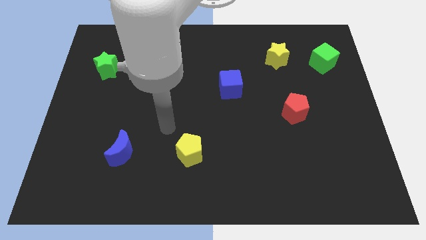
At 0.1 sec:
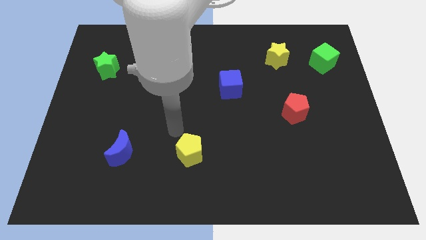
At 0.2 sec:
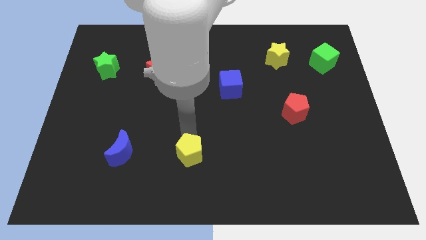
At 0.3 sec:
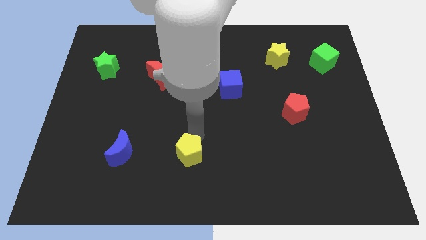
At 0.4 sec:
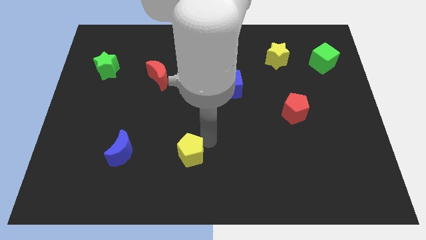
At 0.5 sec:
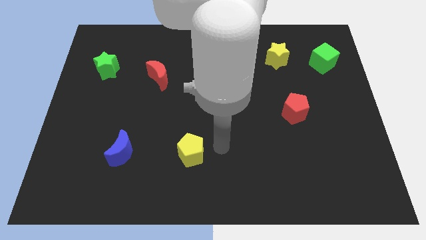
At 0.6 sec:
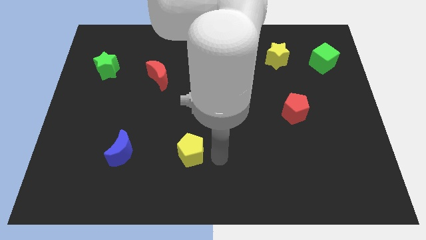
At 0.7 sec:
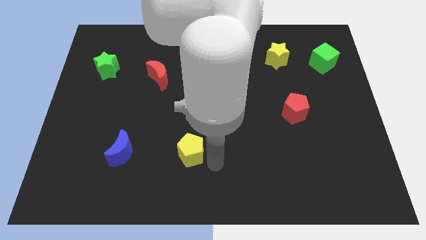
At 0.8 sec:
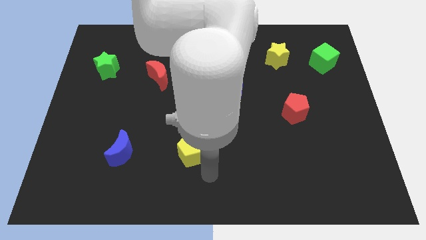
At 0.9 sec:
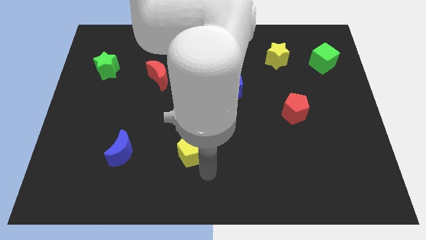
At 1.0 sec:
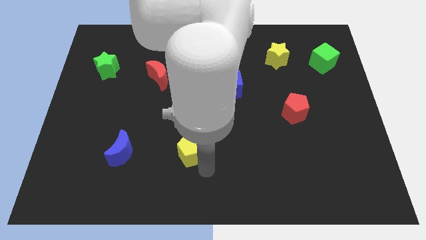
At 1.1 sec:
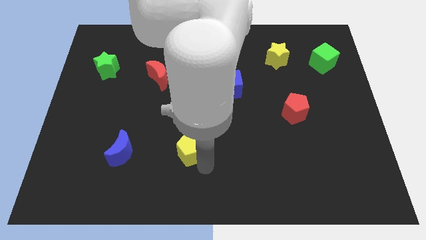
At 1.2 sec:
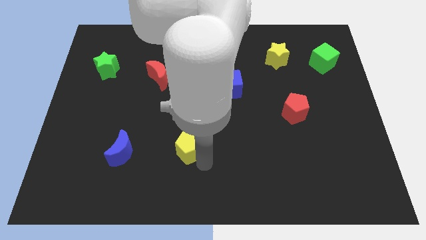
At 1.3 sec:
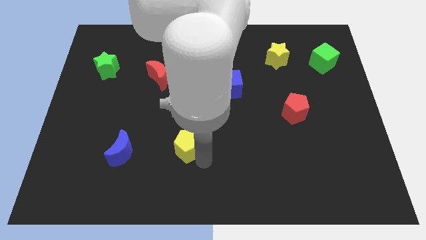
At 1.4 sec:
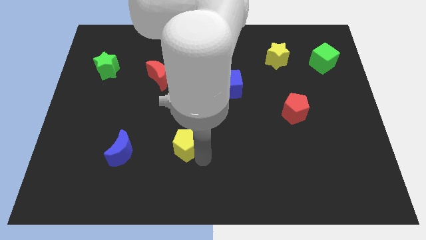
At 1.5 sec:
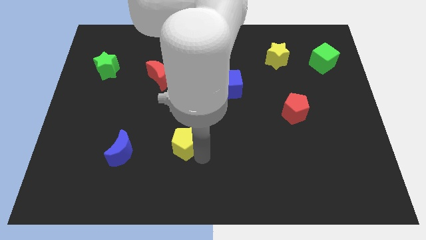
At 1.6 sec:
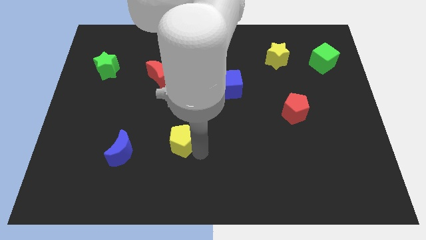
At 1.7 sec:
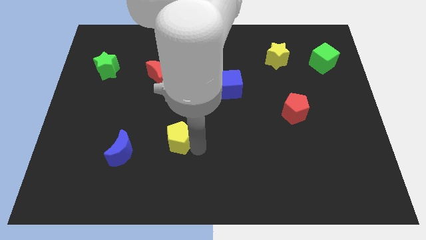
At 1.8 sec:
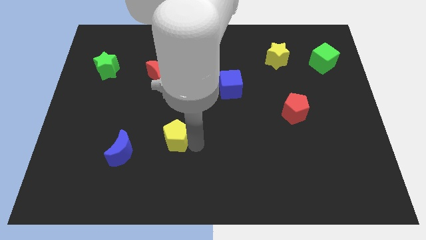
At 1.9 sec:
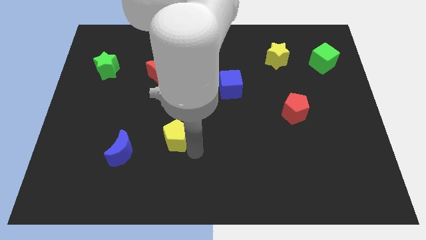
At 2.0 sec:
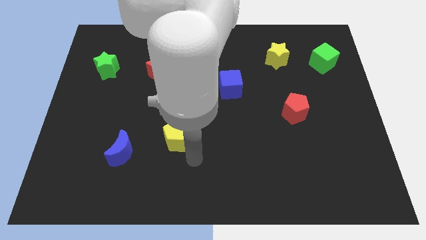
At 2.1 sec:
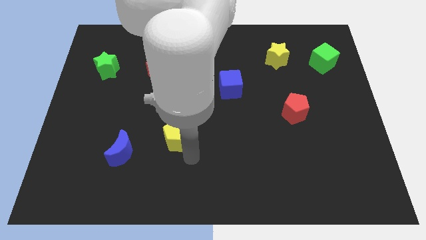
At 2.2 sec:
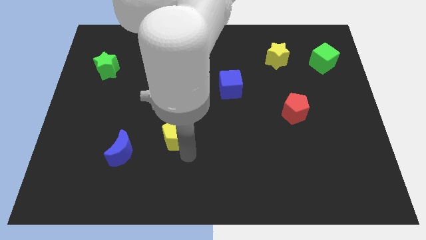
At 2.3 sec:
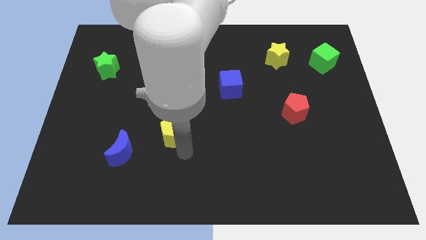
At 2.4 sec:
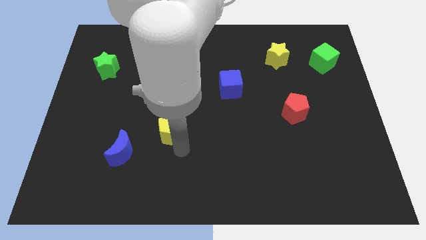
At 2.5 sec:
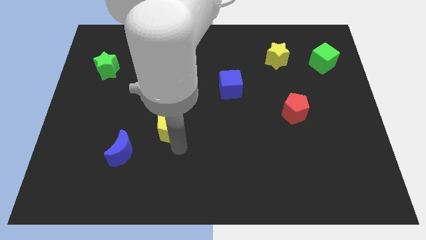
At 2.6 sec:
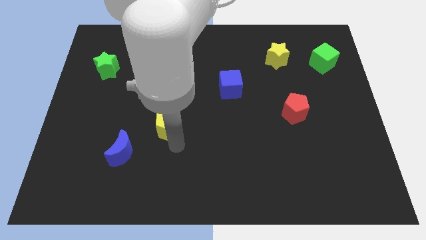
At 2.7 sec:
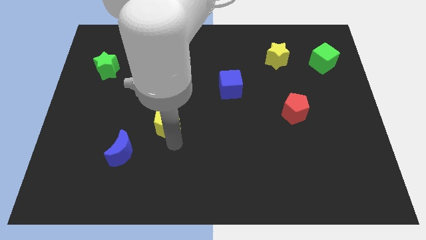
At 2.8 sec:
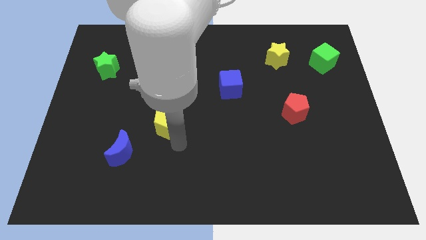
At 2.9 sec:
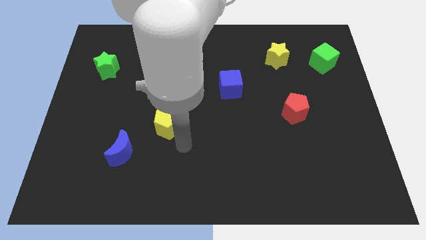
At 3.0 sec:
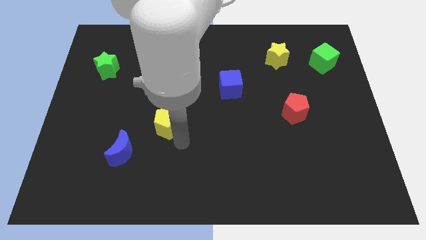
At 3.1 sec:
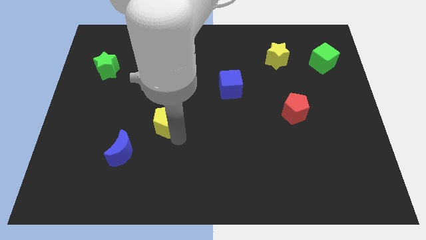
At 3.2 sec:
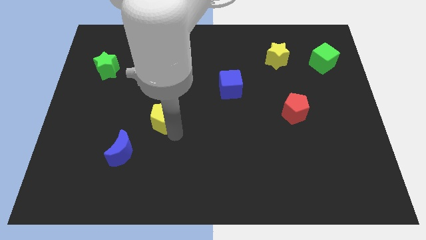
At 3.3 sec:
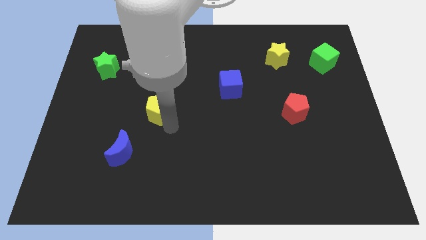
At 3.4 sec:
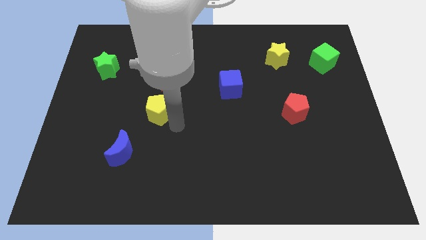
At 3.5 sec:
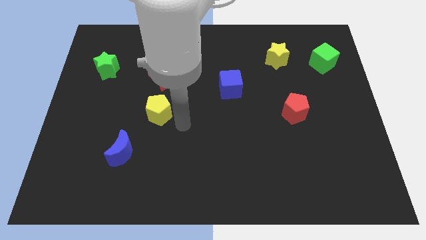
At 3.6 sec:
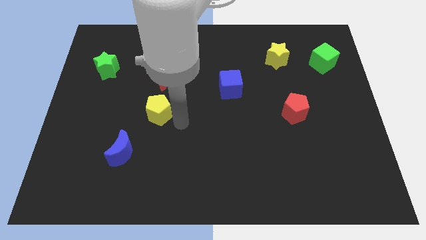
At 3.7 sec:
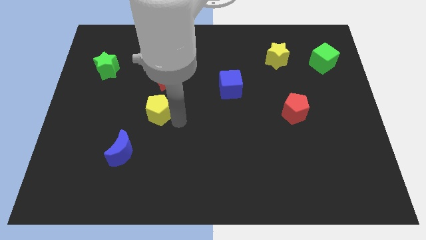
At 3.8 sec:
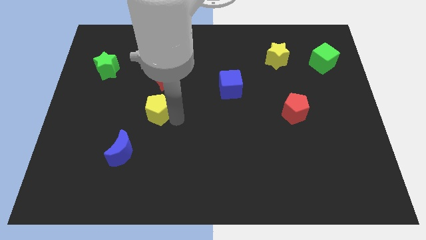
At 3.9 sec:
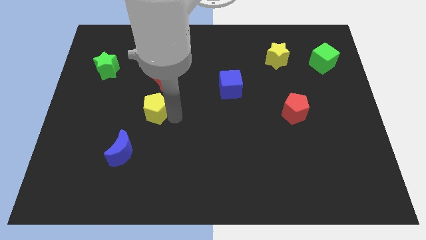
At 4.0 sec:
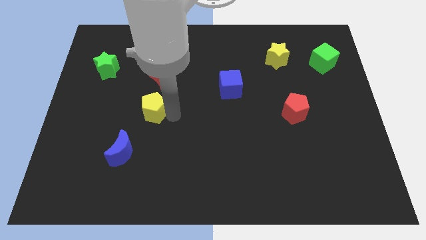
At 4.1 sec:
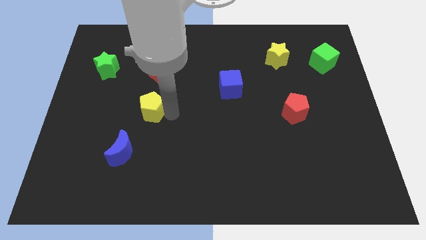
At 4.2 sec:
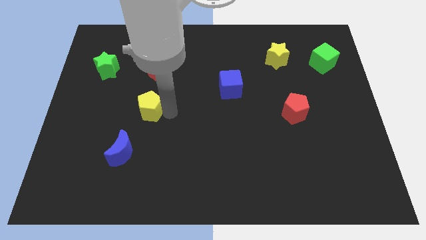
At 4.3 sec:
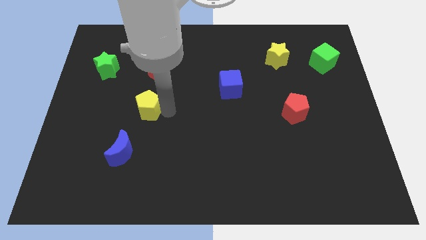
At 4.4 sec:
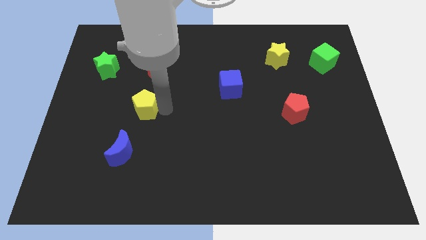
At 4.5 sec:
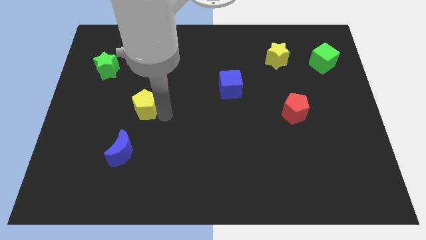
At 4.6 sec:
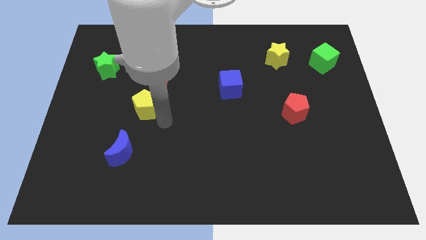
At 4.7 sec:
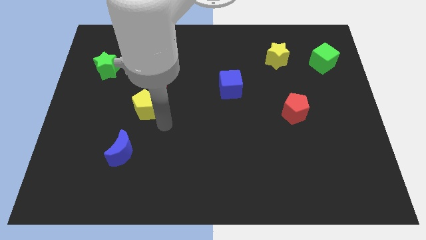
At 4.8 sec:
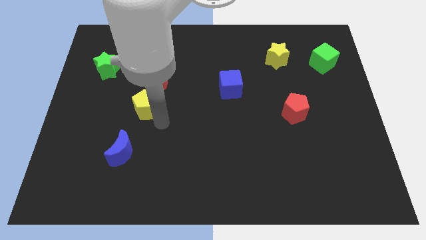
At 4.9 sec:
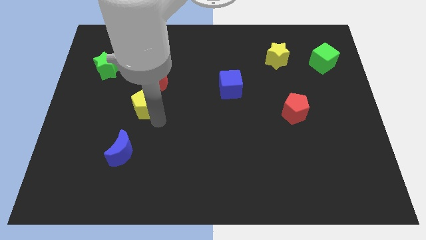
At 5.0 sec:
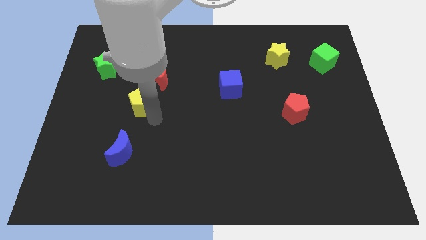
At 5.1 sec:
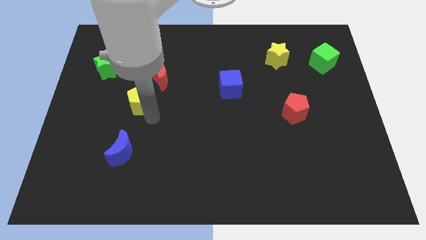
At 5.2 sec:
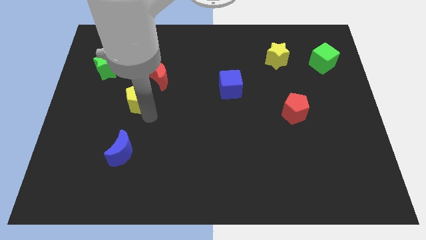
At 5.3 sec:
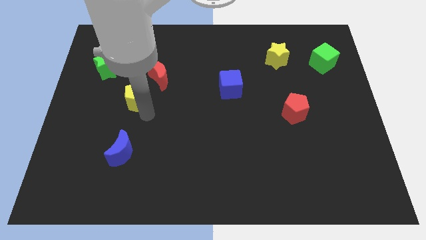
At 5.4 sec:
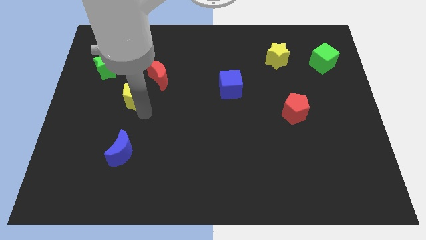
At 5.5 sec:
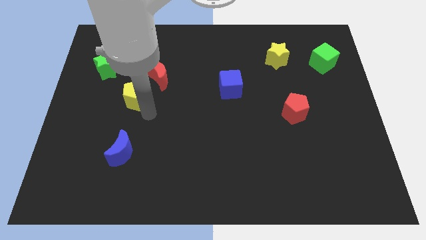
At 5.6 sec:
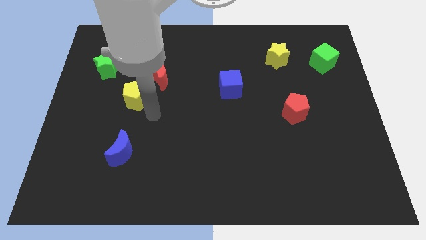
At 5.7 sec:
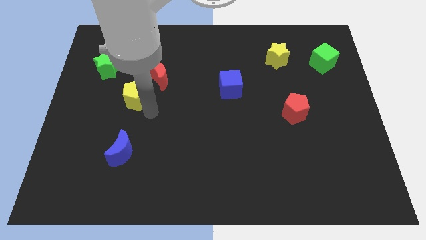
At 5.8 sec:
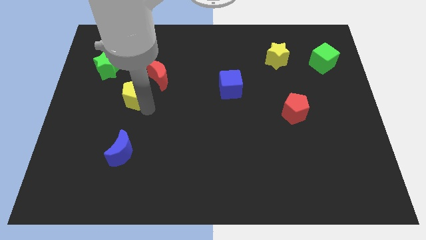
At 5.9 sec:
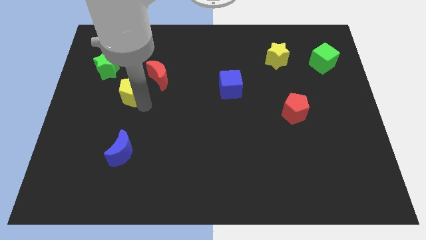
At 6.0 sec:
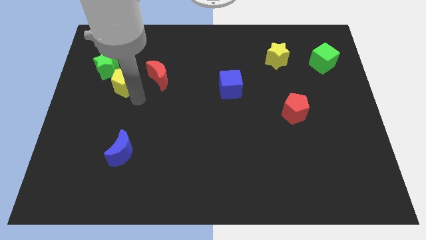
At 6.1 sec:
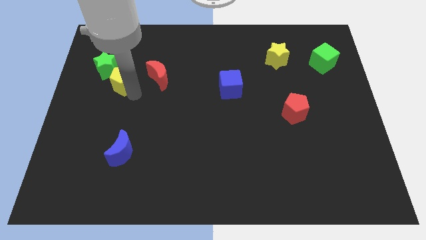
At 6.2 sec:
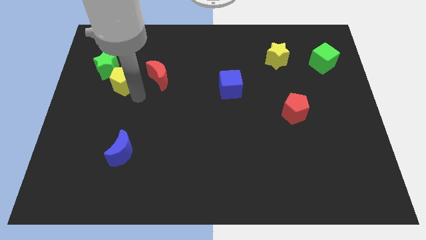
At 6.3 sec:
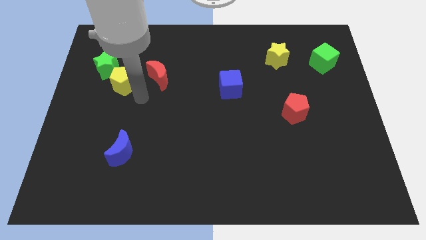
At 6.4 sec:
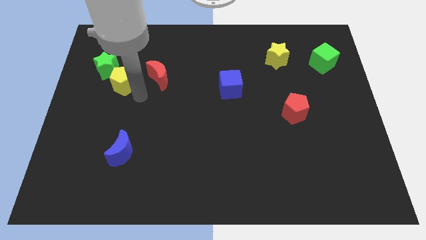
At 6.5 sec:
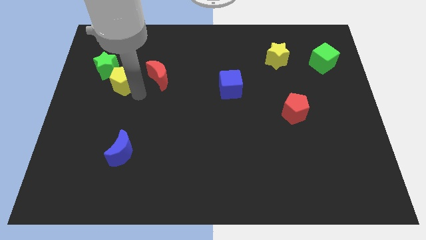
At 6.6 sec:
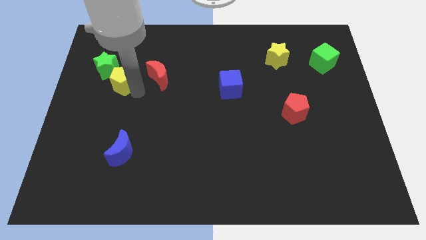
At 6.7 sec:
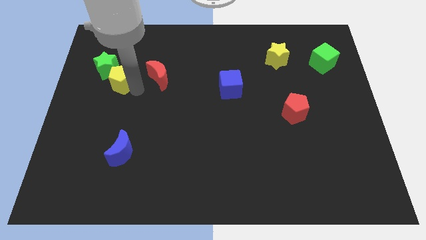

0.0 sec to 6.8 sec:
slide the yellow pentagon close to the green star

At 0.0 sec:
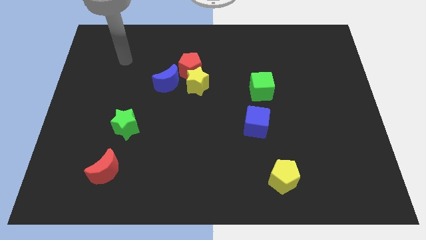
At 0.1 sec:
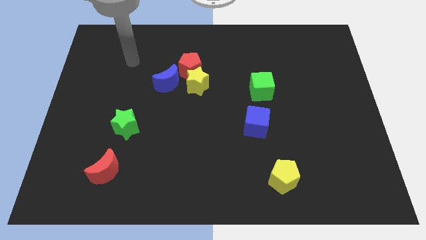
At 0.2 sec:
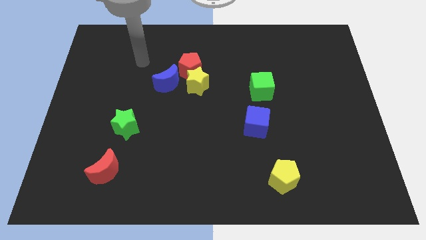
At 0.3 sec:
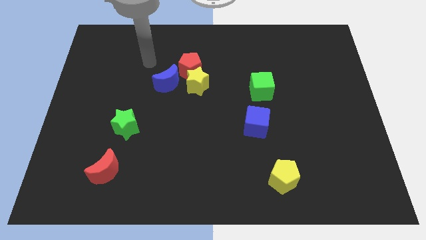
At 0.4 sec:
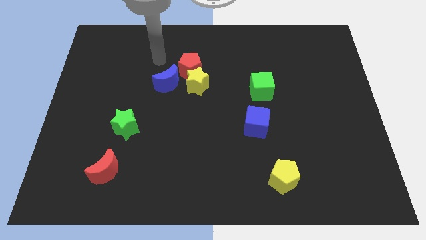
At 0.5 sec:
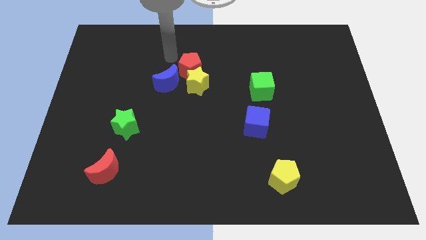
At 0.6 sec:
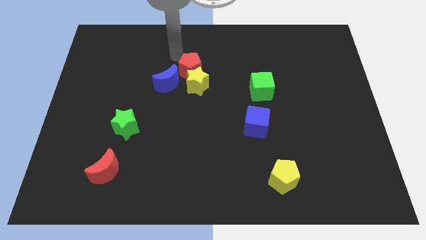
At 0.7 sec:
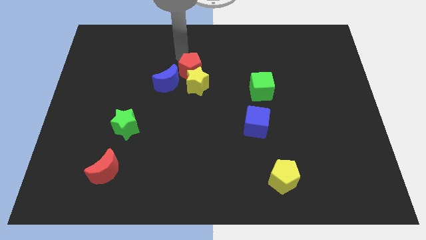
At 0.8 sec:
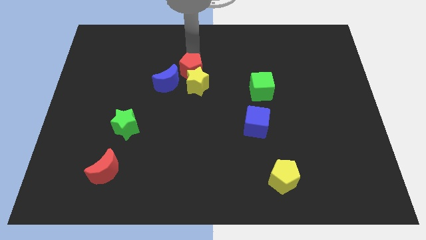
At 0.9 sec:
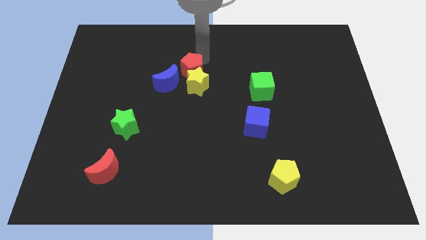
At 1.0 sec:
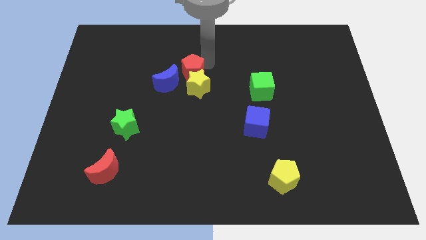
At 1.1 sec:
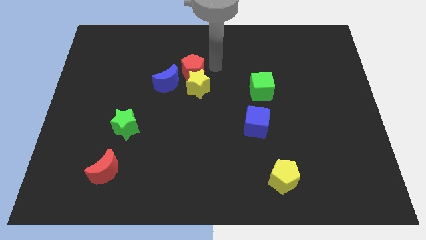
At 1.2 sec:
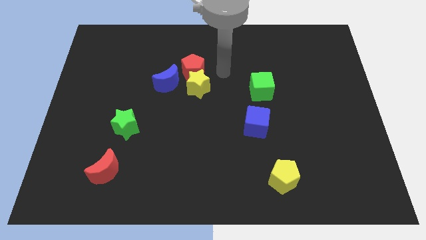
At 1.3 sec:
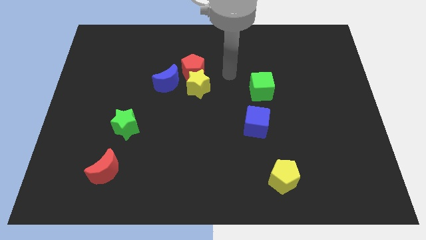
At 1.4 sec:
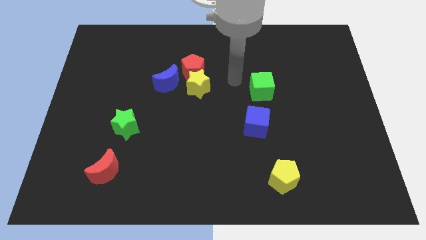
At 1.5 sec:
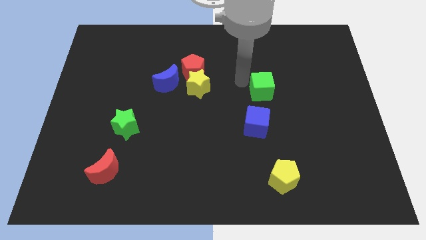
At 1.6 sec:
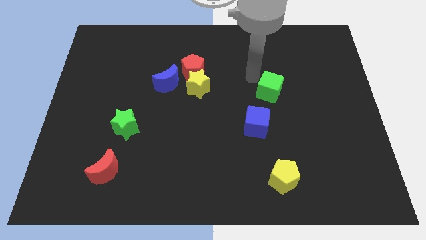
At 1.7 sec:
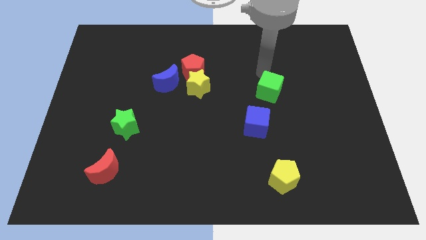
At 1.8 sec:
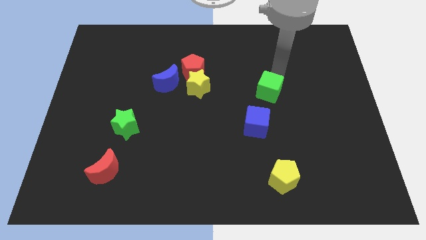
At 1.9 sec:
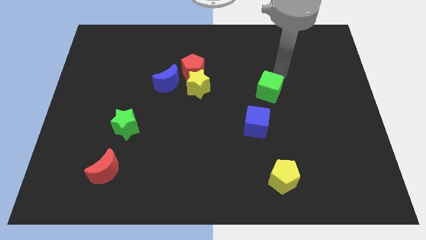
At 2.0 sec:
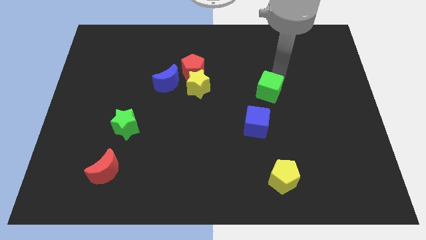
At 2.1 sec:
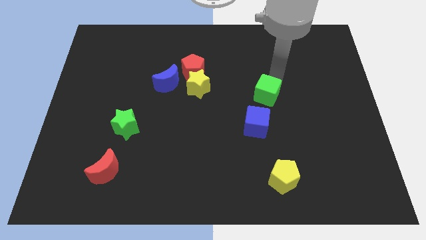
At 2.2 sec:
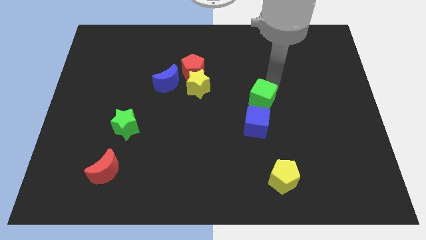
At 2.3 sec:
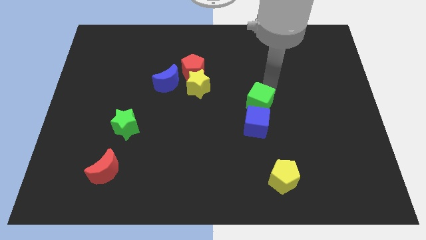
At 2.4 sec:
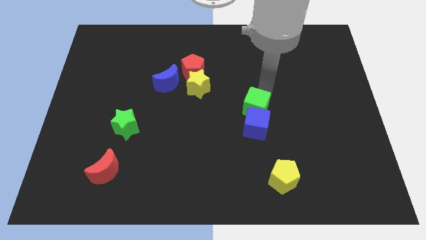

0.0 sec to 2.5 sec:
slide the green cube towards the blue cube
